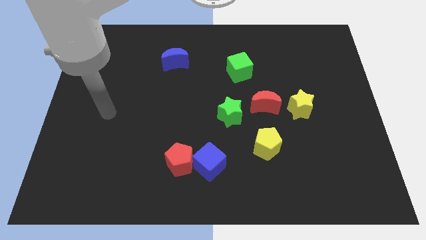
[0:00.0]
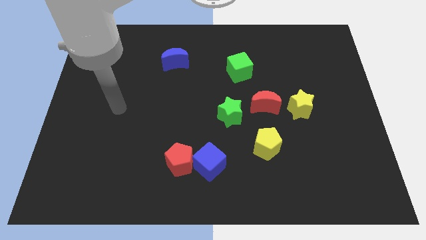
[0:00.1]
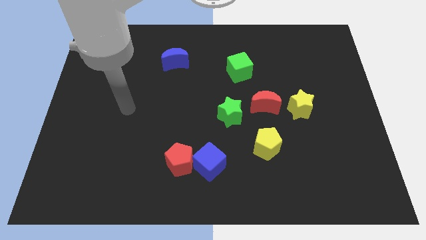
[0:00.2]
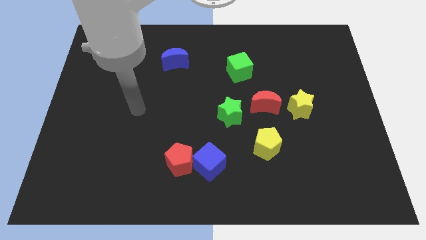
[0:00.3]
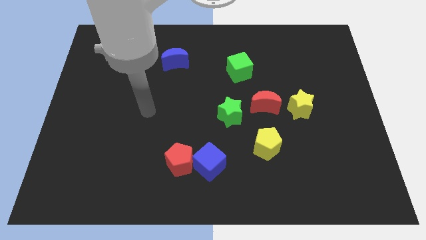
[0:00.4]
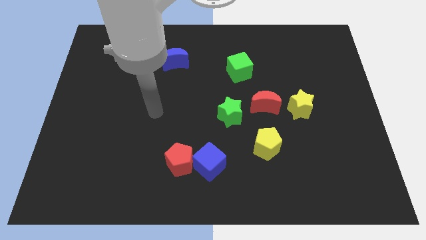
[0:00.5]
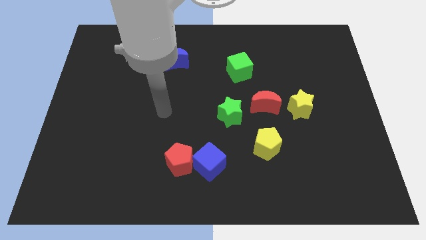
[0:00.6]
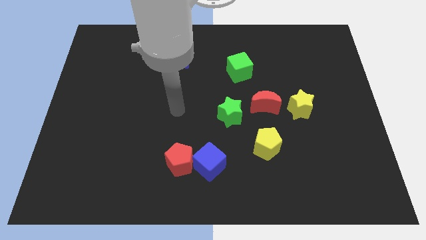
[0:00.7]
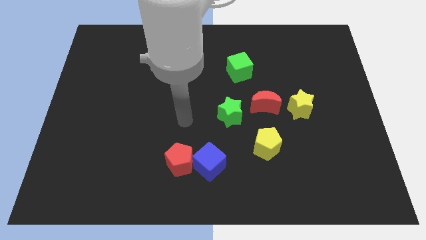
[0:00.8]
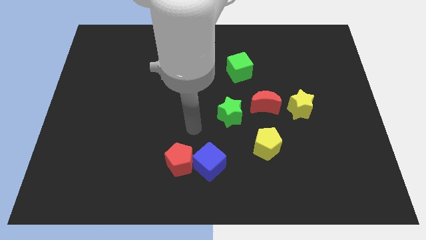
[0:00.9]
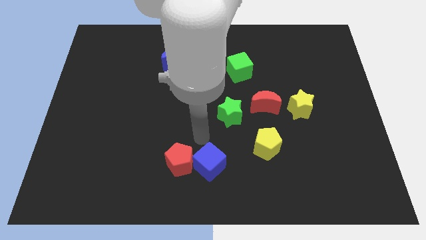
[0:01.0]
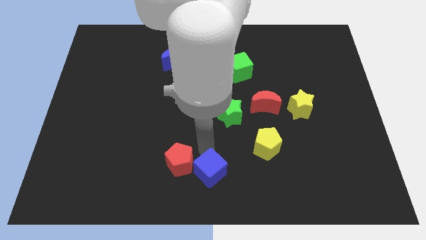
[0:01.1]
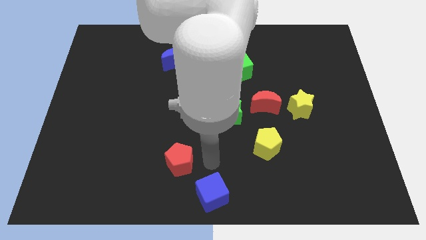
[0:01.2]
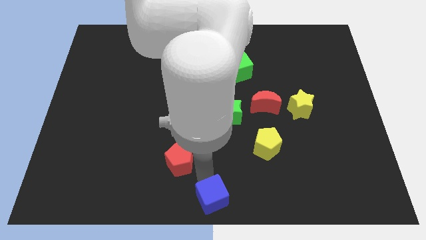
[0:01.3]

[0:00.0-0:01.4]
pull the red pentagon apart from the blue cube

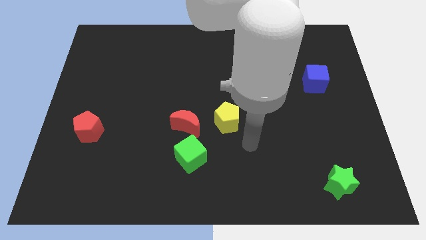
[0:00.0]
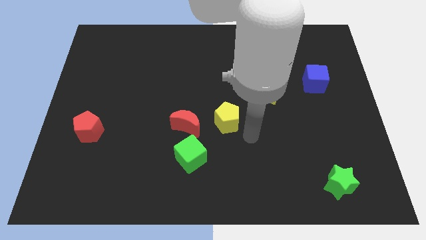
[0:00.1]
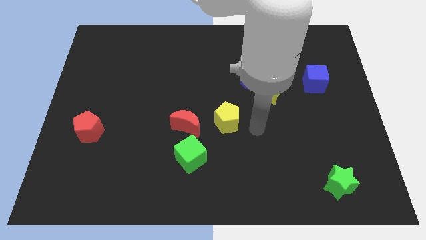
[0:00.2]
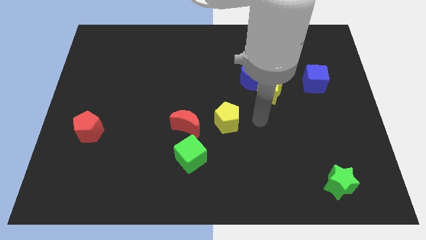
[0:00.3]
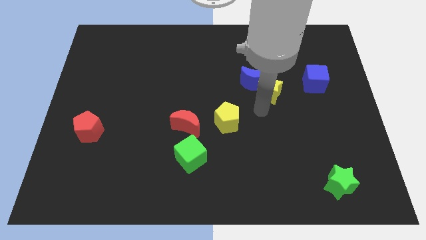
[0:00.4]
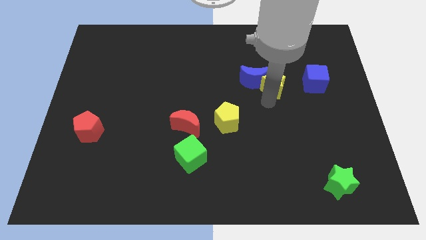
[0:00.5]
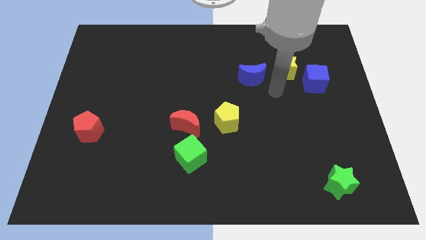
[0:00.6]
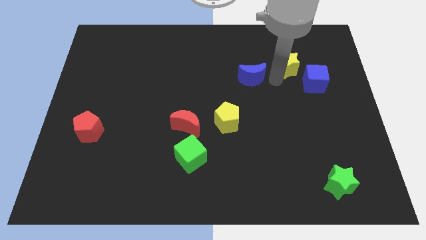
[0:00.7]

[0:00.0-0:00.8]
separate the blue moon from the yellow star

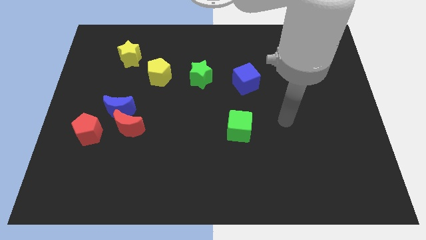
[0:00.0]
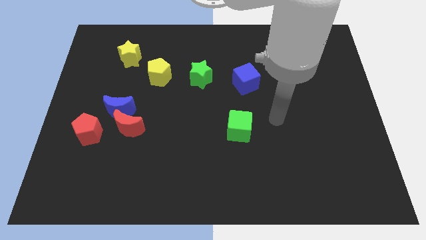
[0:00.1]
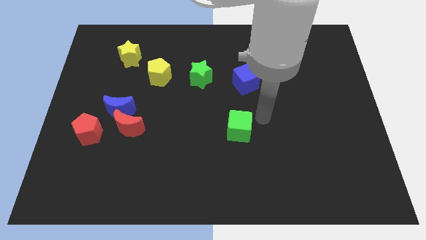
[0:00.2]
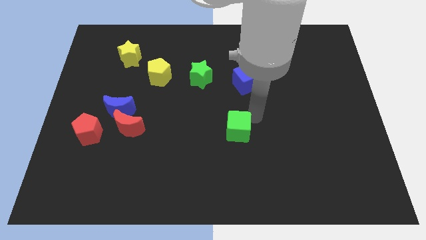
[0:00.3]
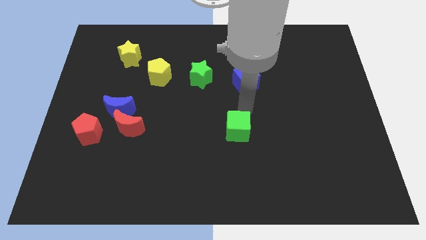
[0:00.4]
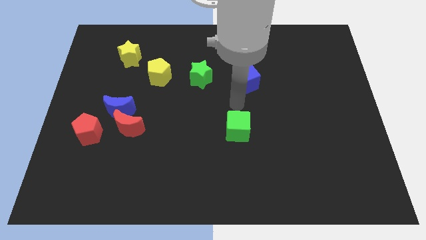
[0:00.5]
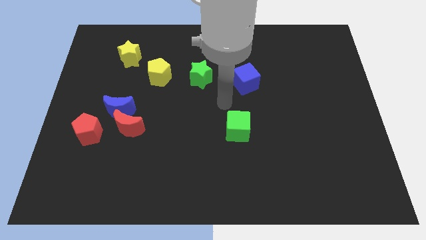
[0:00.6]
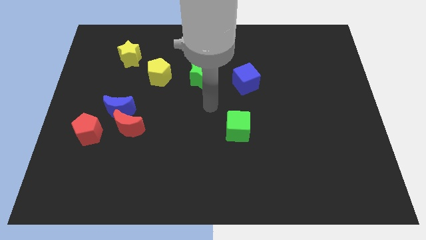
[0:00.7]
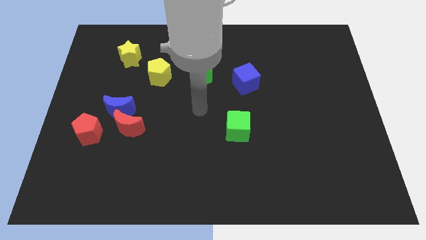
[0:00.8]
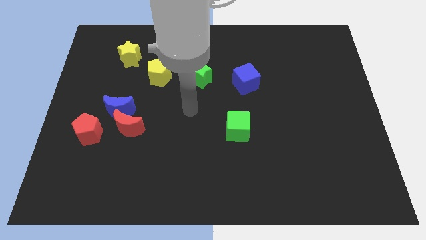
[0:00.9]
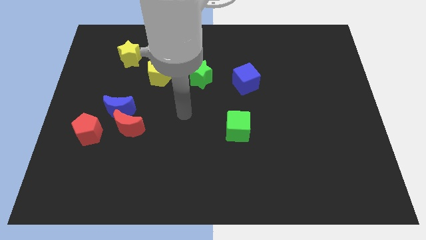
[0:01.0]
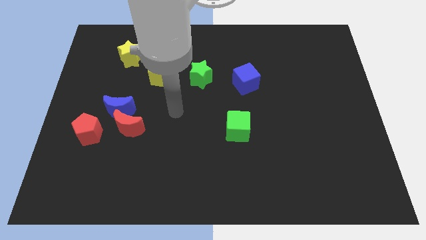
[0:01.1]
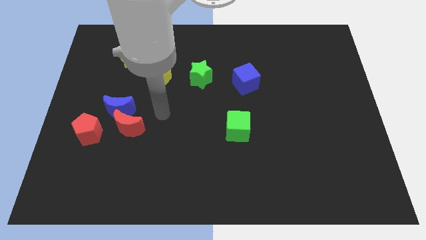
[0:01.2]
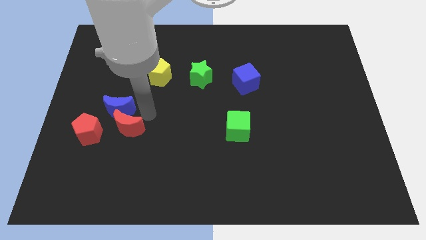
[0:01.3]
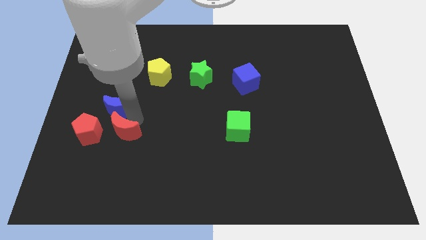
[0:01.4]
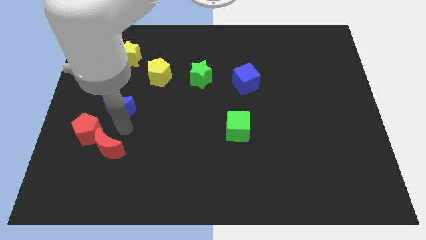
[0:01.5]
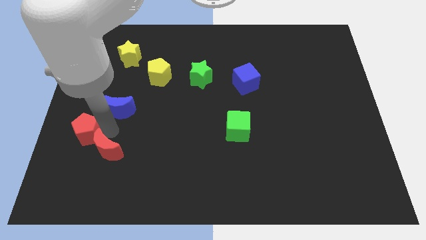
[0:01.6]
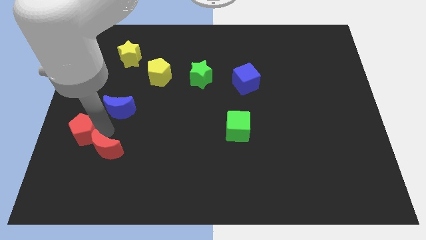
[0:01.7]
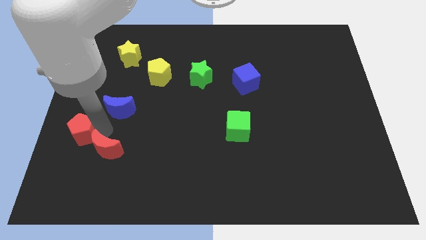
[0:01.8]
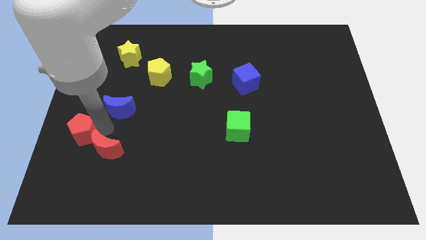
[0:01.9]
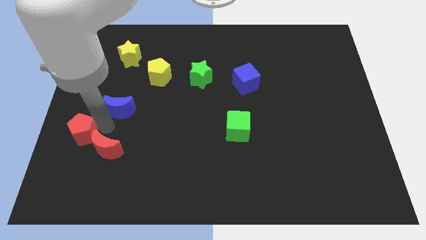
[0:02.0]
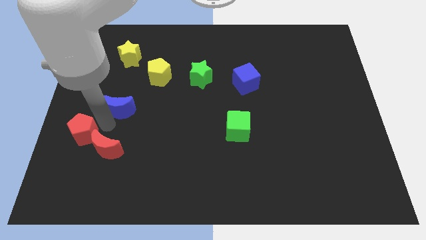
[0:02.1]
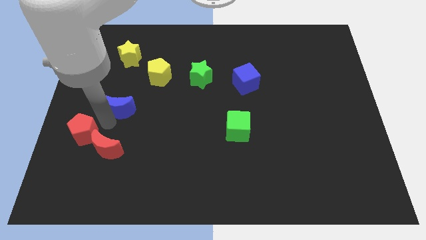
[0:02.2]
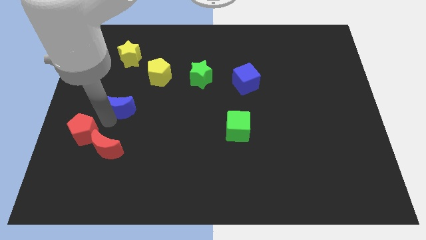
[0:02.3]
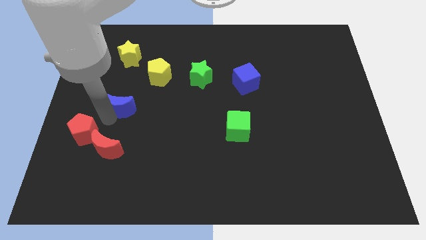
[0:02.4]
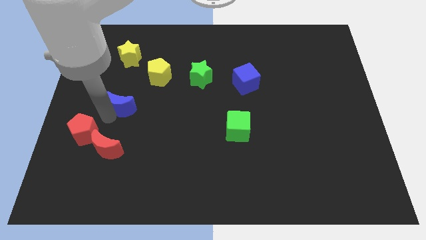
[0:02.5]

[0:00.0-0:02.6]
pull the blue moon apart from the red moon and red pentagon

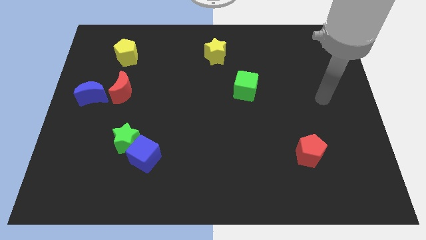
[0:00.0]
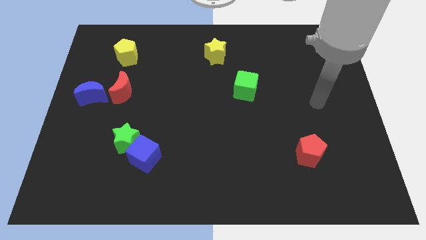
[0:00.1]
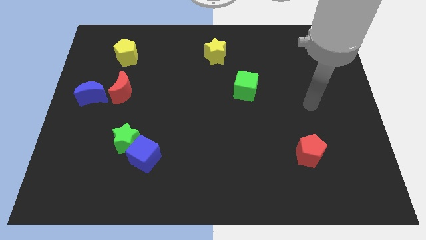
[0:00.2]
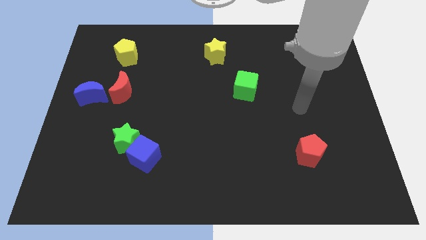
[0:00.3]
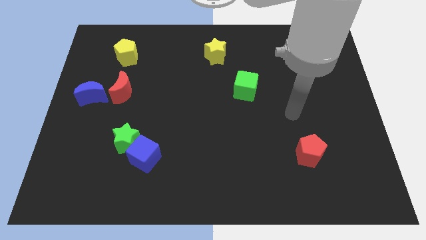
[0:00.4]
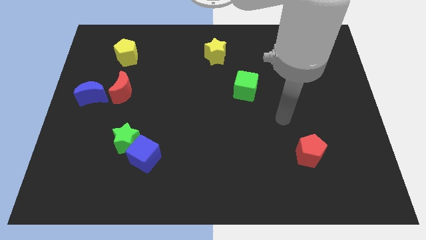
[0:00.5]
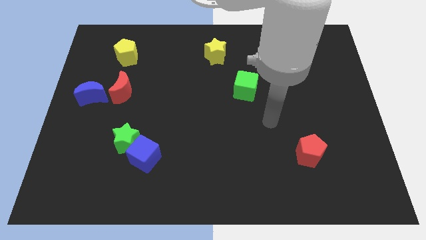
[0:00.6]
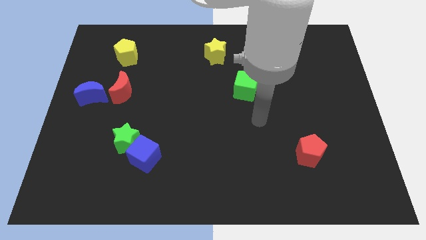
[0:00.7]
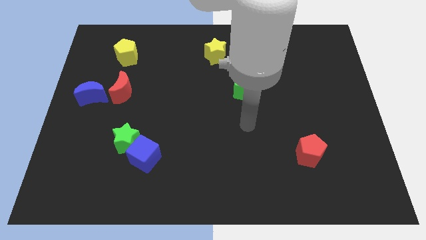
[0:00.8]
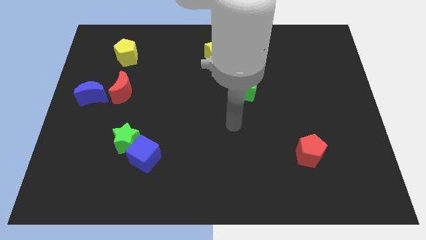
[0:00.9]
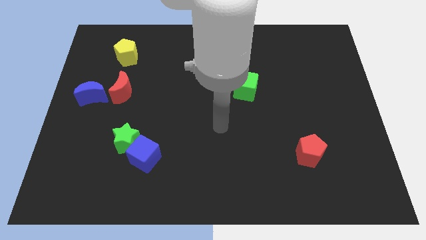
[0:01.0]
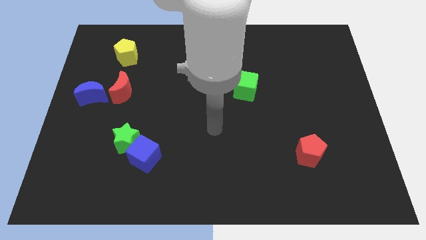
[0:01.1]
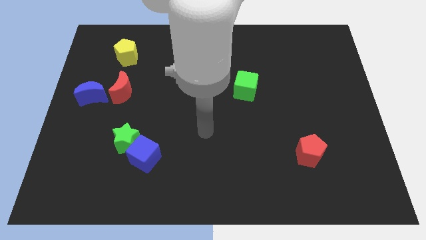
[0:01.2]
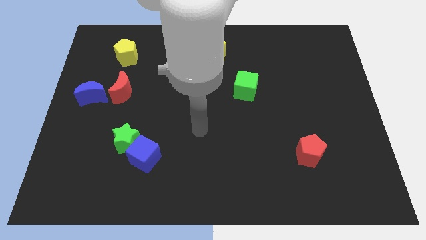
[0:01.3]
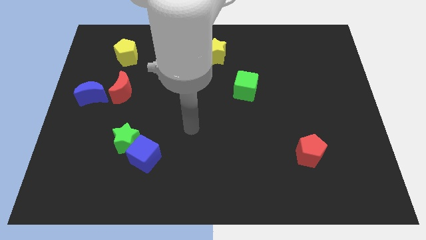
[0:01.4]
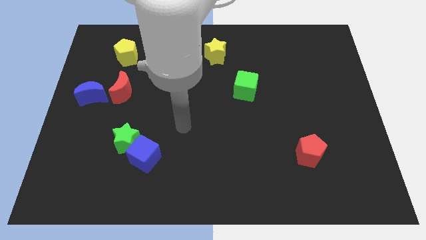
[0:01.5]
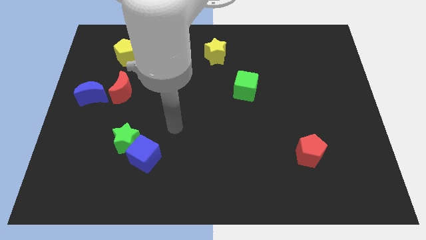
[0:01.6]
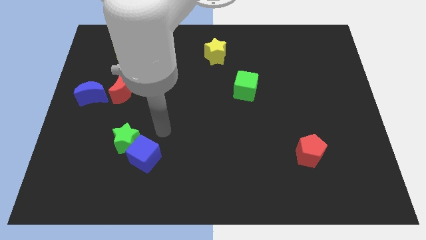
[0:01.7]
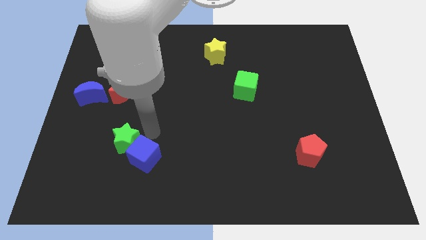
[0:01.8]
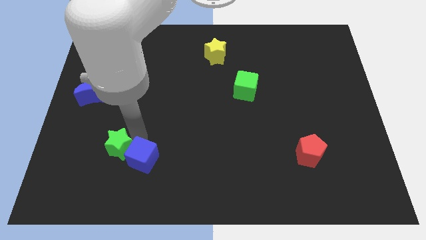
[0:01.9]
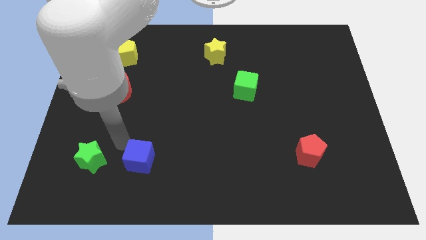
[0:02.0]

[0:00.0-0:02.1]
move the blue cube away from the green star

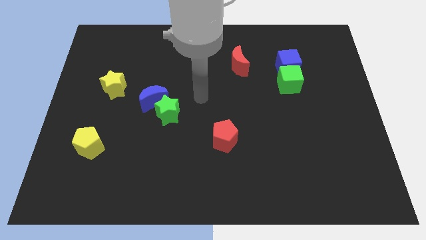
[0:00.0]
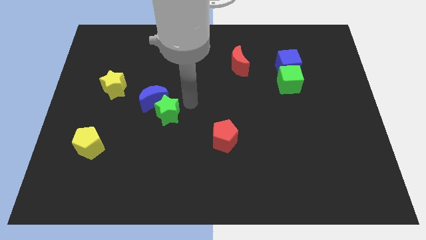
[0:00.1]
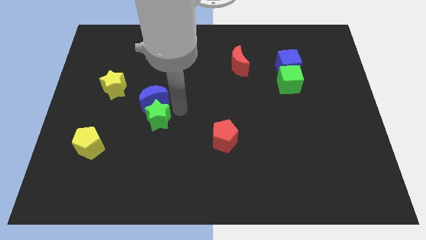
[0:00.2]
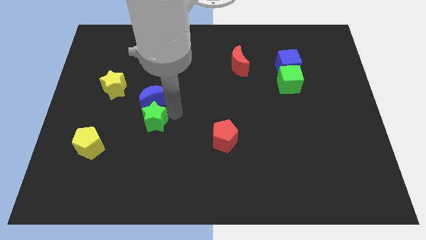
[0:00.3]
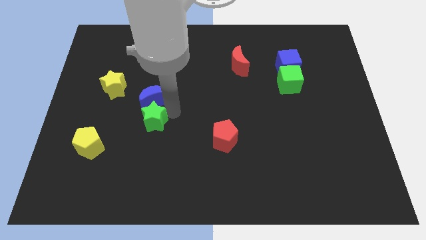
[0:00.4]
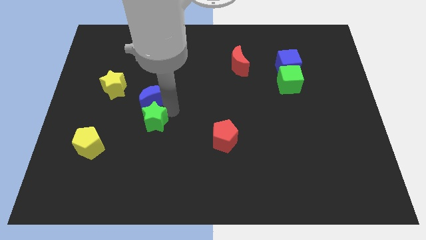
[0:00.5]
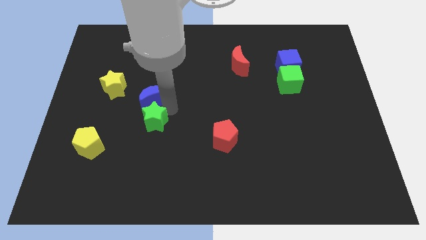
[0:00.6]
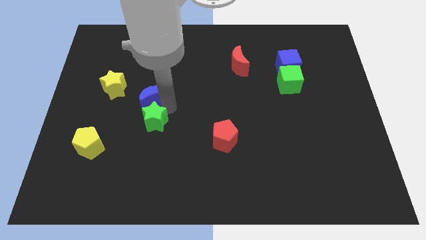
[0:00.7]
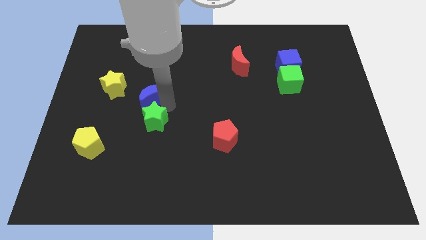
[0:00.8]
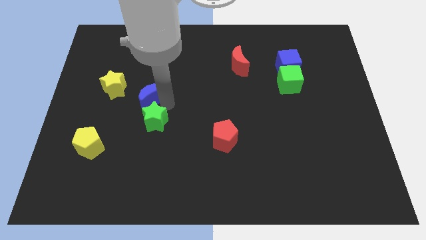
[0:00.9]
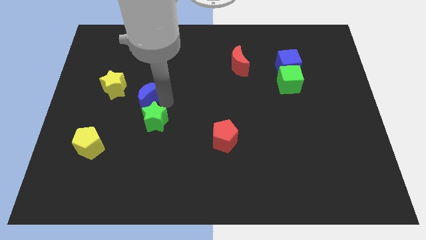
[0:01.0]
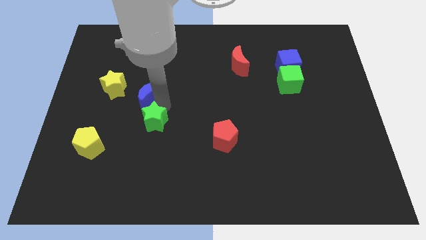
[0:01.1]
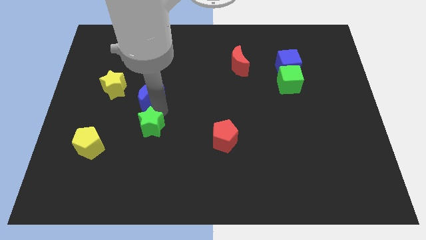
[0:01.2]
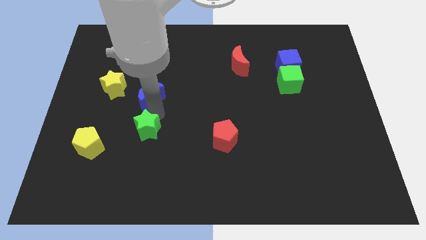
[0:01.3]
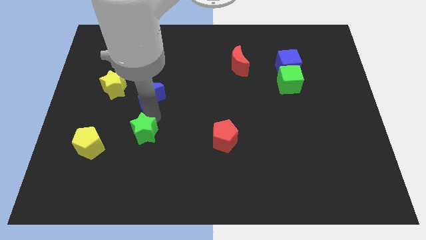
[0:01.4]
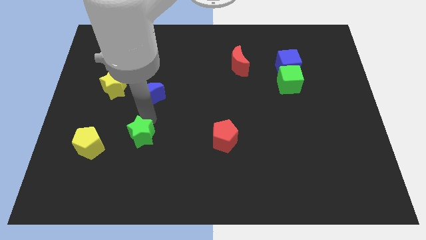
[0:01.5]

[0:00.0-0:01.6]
separate the blue moon from the green star

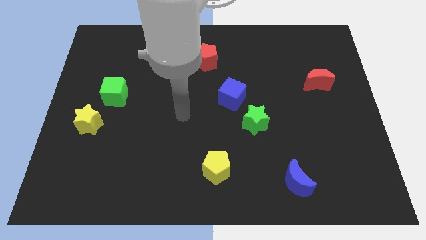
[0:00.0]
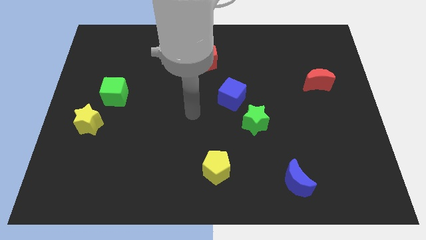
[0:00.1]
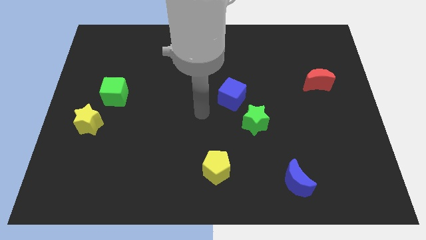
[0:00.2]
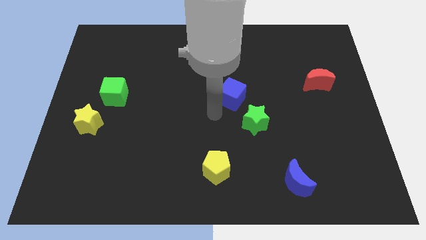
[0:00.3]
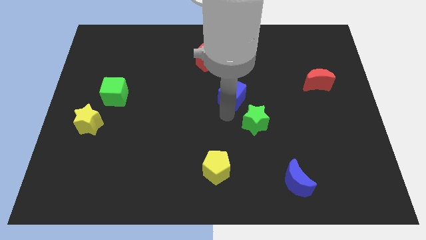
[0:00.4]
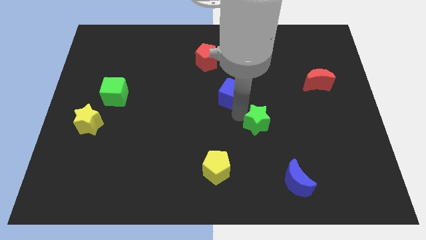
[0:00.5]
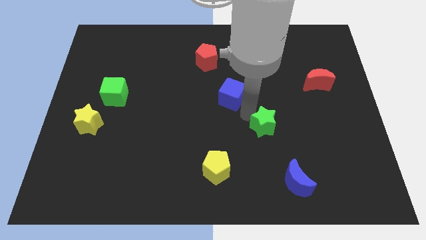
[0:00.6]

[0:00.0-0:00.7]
separate the blue cube from the green star
